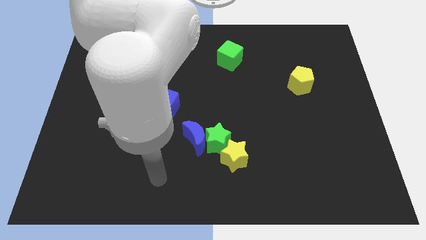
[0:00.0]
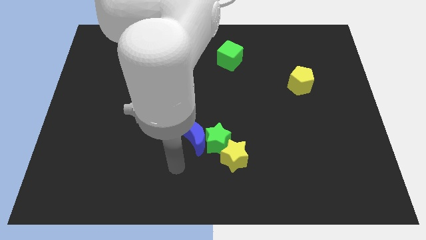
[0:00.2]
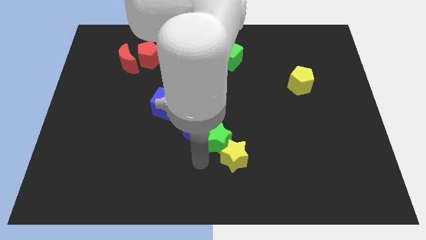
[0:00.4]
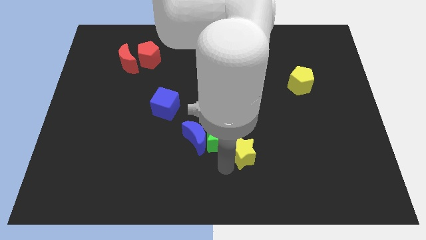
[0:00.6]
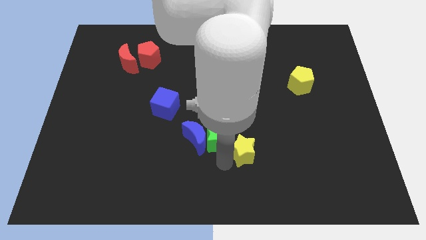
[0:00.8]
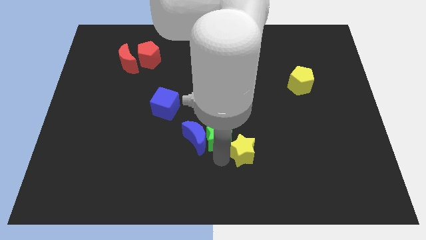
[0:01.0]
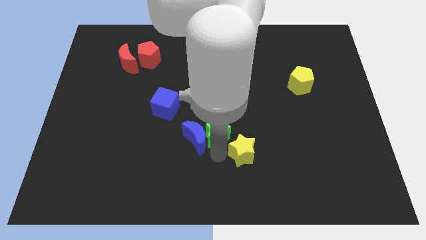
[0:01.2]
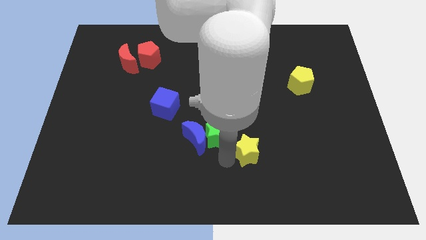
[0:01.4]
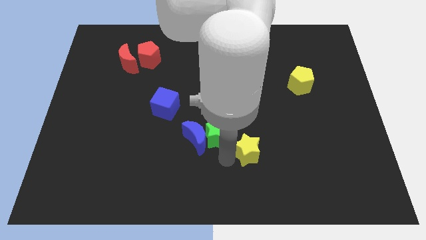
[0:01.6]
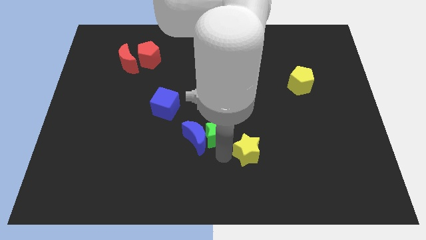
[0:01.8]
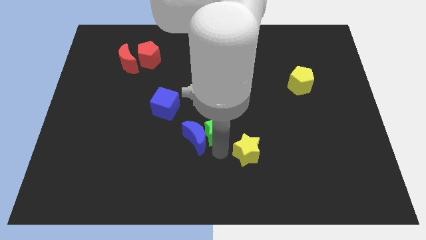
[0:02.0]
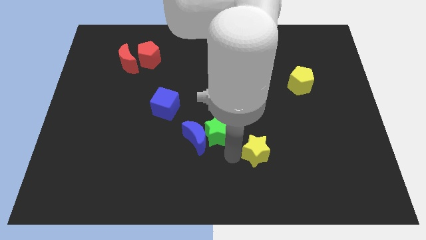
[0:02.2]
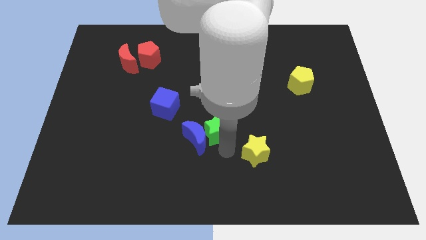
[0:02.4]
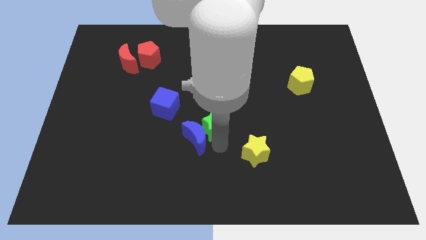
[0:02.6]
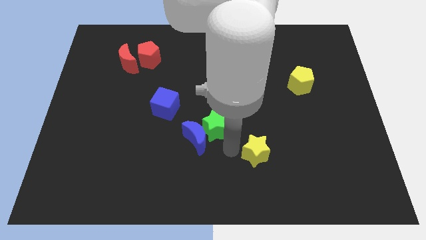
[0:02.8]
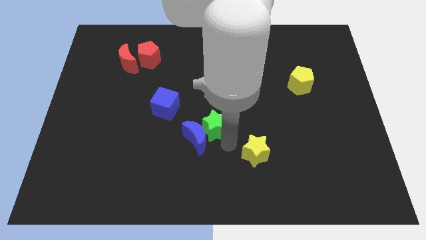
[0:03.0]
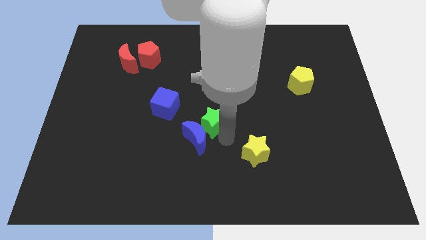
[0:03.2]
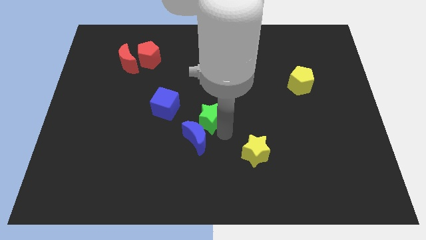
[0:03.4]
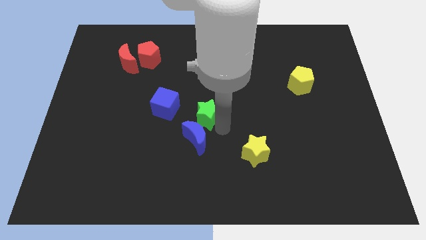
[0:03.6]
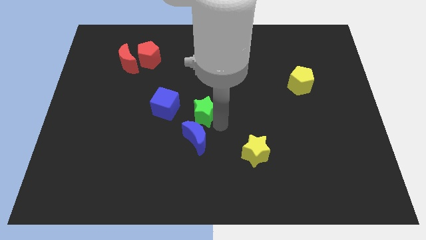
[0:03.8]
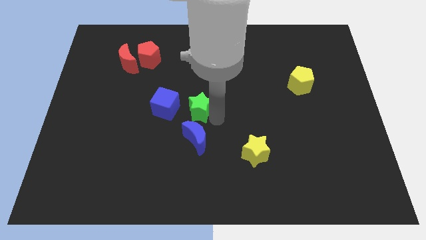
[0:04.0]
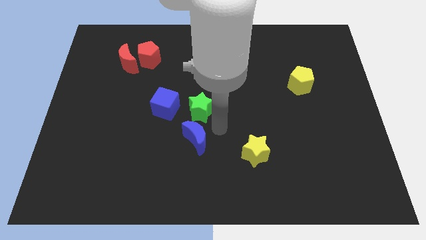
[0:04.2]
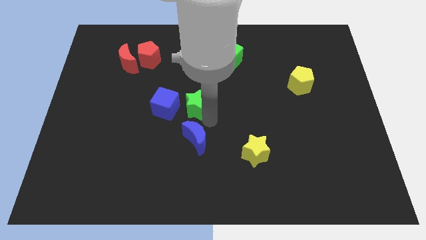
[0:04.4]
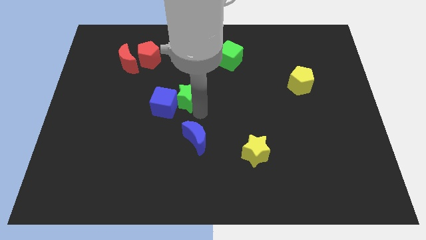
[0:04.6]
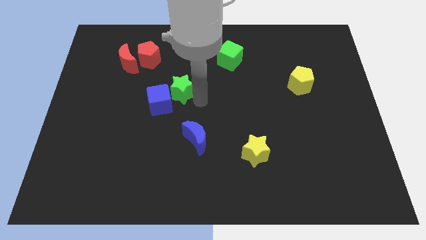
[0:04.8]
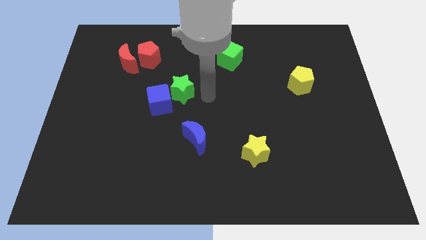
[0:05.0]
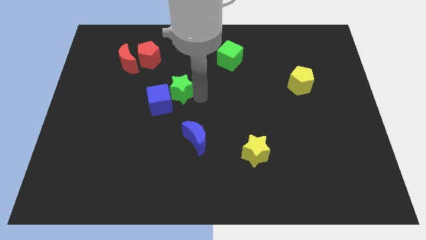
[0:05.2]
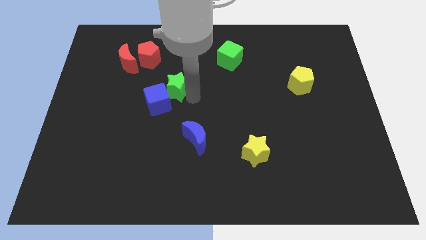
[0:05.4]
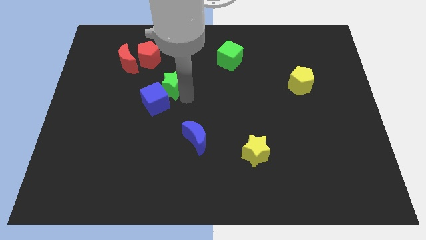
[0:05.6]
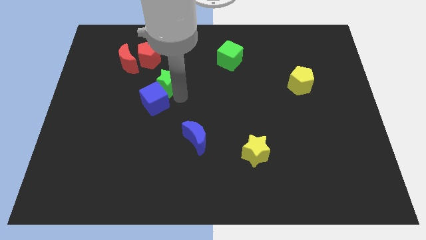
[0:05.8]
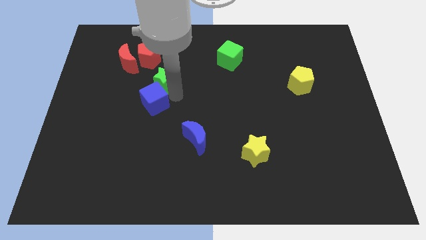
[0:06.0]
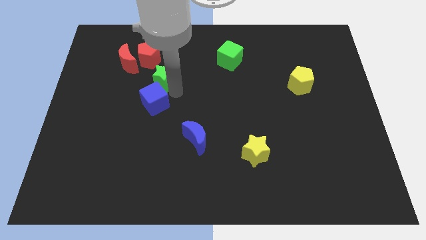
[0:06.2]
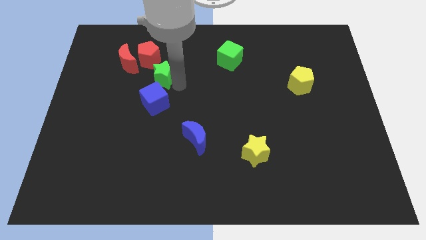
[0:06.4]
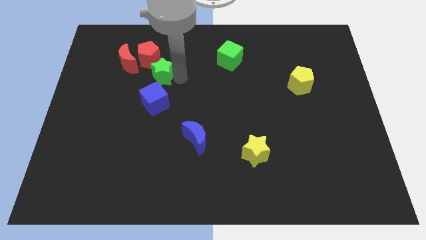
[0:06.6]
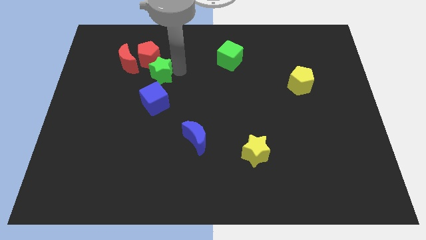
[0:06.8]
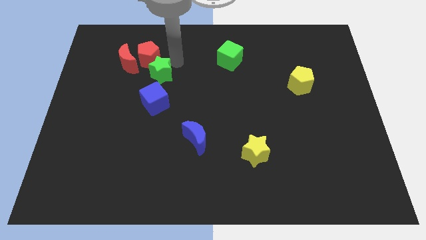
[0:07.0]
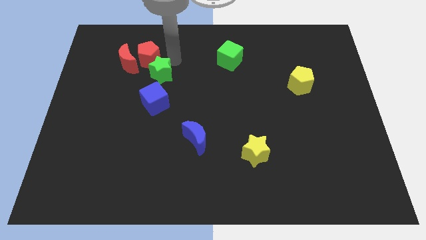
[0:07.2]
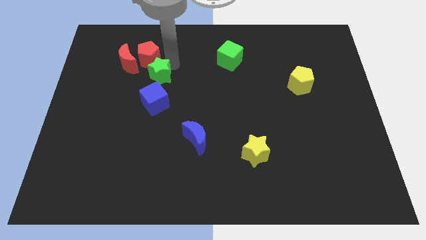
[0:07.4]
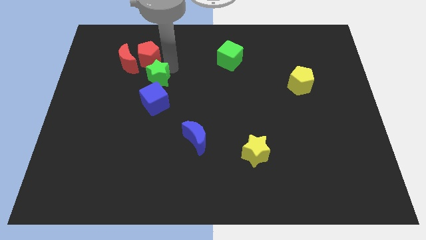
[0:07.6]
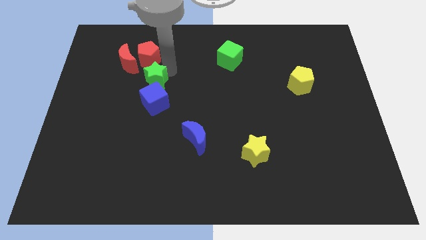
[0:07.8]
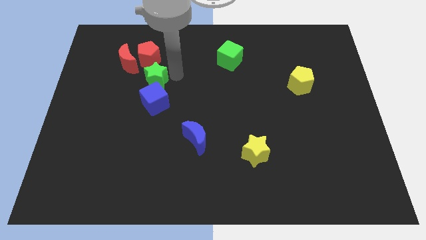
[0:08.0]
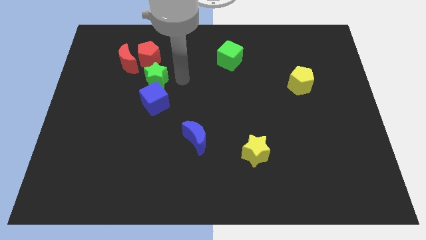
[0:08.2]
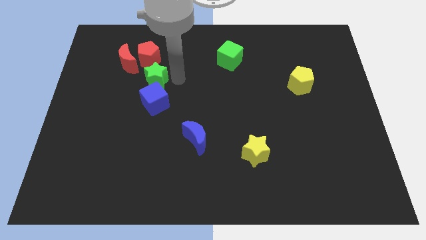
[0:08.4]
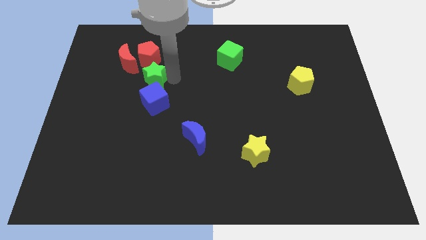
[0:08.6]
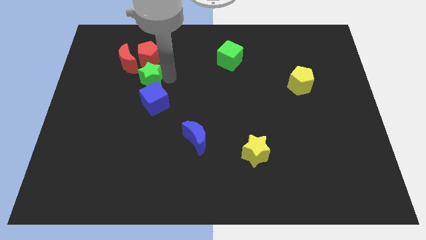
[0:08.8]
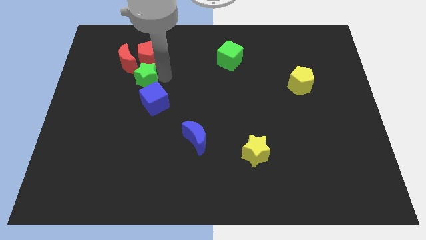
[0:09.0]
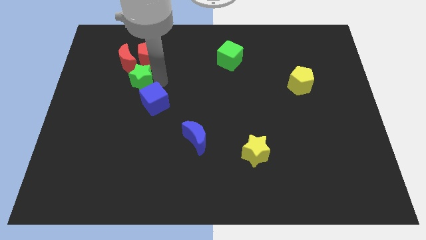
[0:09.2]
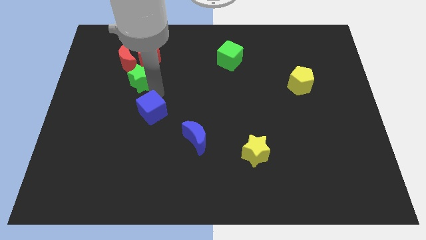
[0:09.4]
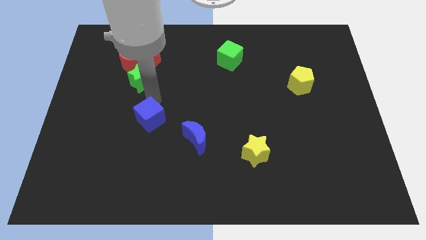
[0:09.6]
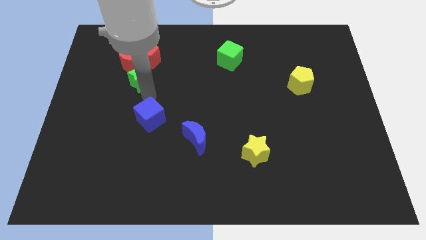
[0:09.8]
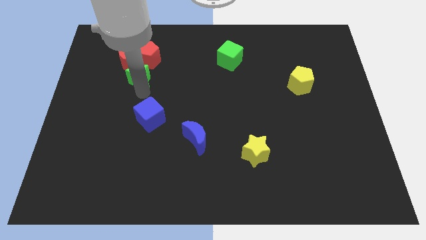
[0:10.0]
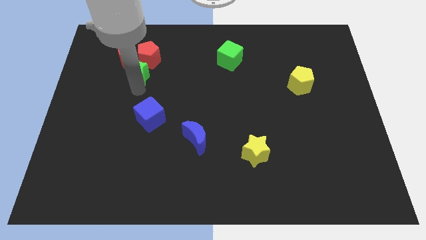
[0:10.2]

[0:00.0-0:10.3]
slide the green star close to the red moon

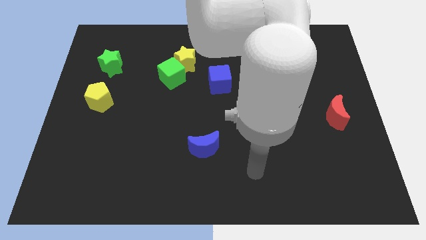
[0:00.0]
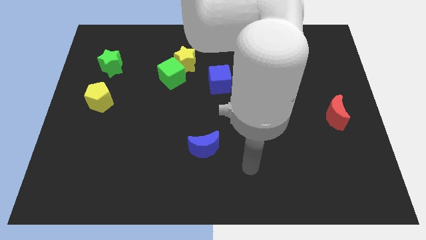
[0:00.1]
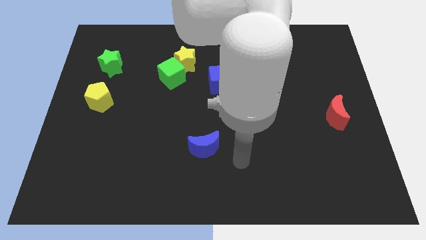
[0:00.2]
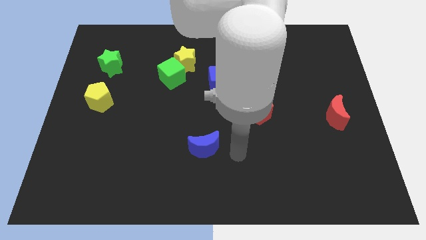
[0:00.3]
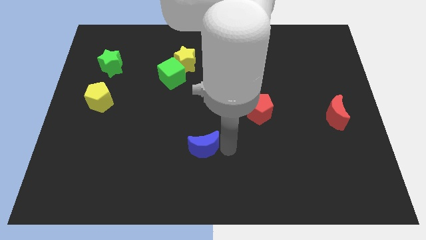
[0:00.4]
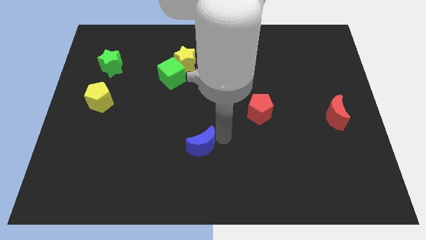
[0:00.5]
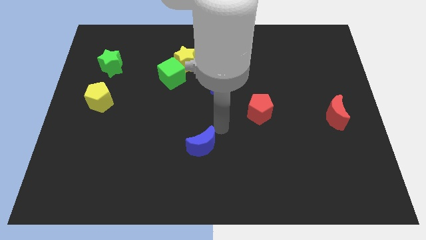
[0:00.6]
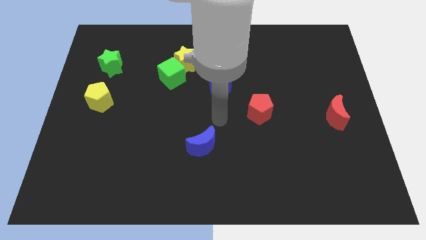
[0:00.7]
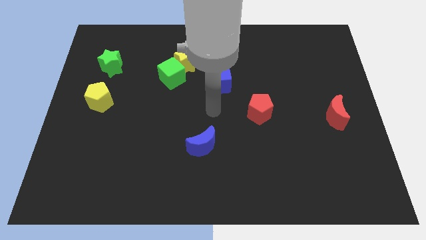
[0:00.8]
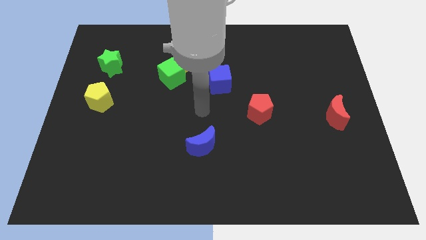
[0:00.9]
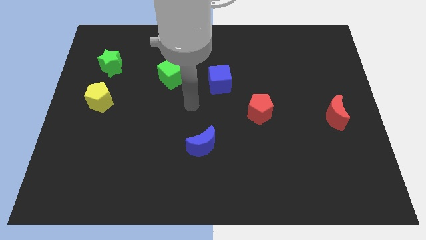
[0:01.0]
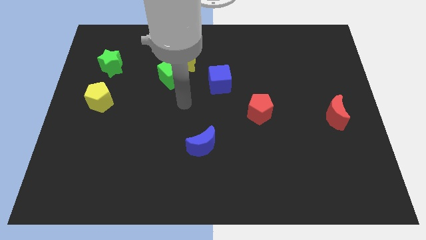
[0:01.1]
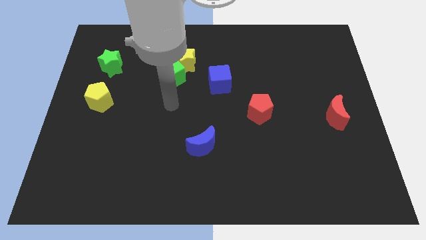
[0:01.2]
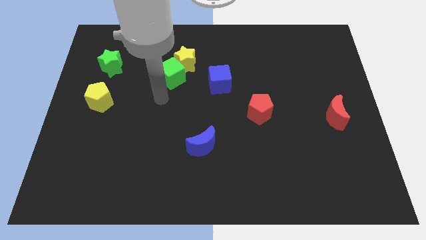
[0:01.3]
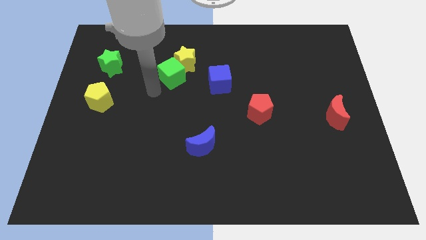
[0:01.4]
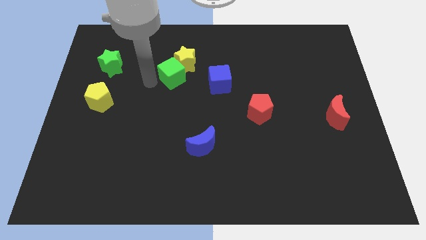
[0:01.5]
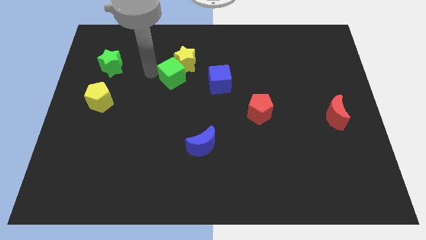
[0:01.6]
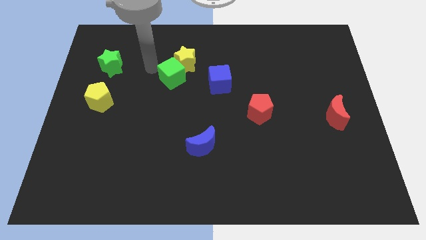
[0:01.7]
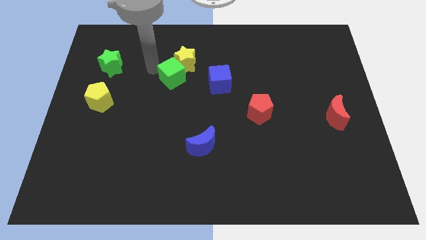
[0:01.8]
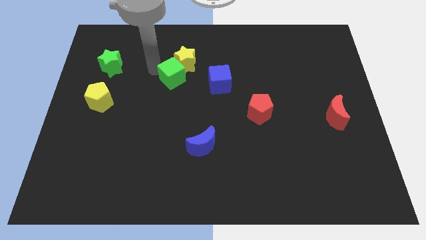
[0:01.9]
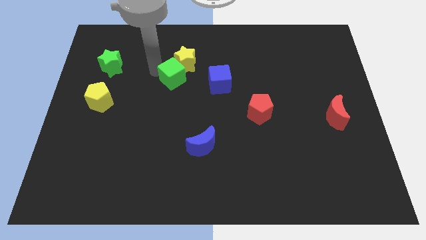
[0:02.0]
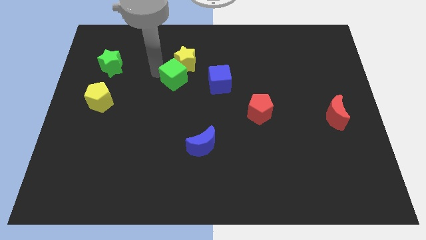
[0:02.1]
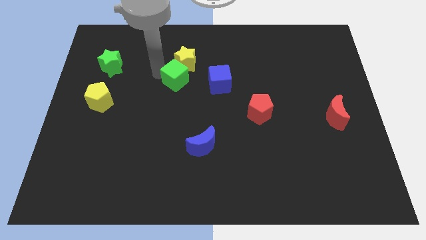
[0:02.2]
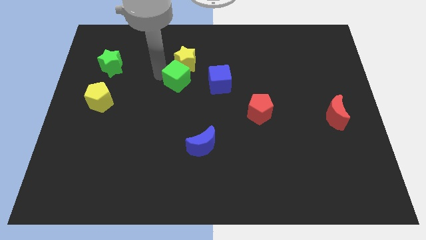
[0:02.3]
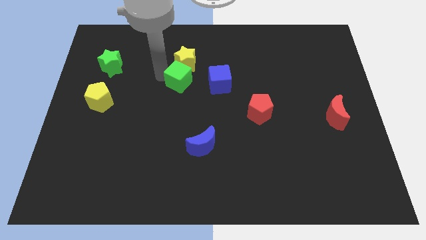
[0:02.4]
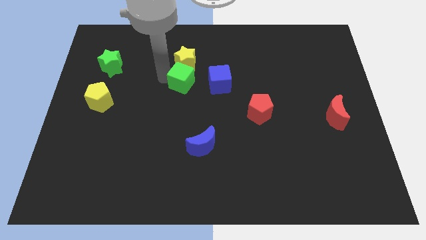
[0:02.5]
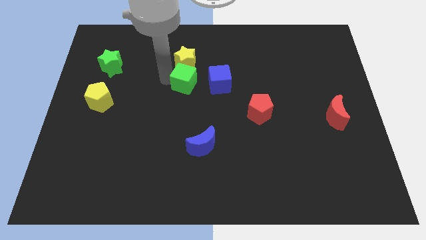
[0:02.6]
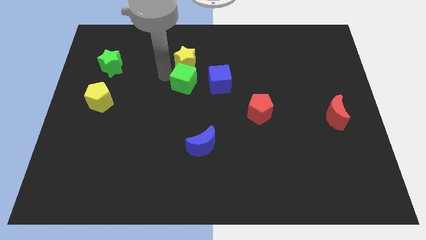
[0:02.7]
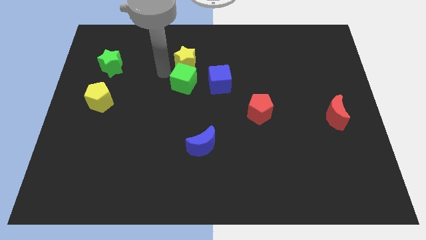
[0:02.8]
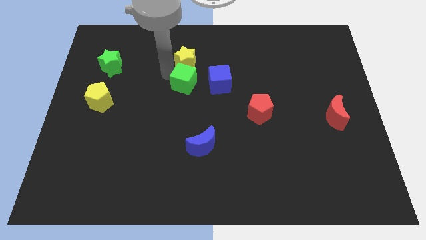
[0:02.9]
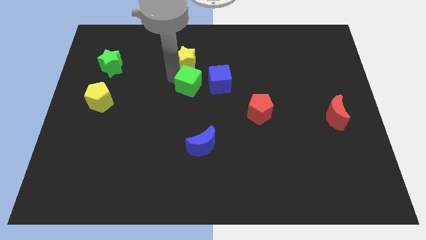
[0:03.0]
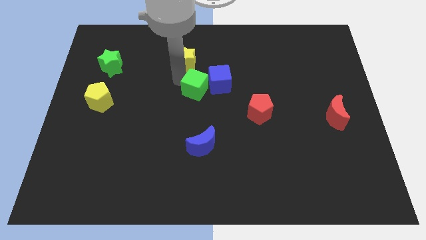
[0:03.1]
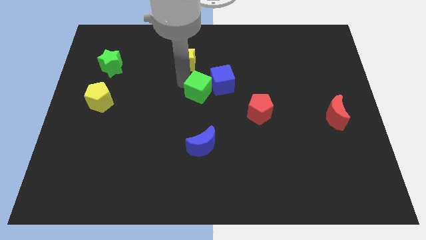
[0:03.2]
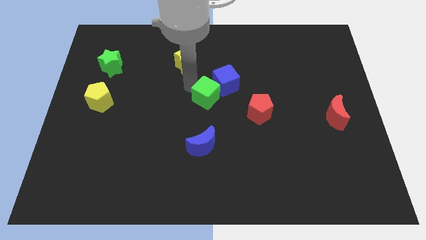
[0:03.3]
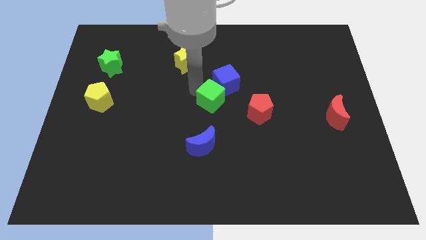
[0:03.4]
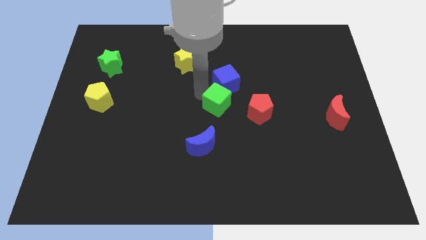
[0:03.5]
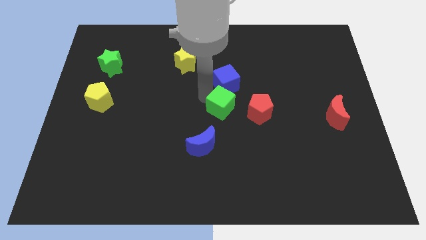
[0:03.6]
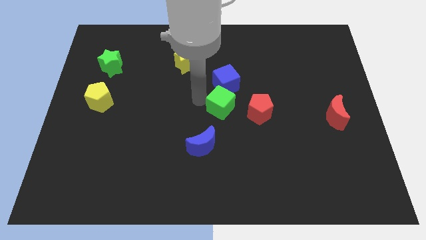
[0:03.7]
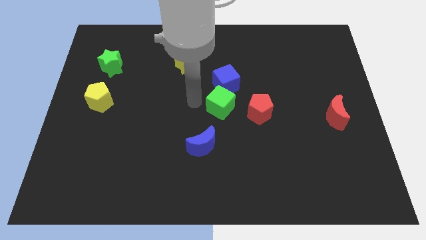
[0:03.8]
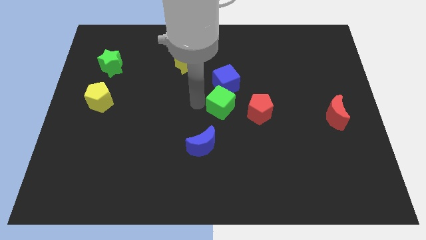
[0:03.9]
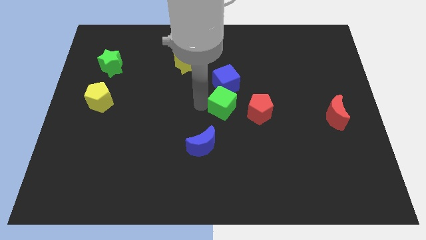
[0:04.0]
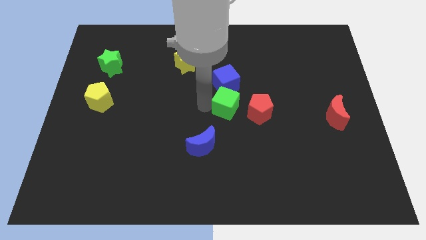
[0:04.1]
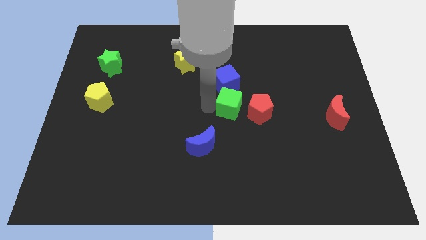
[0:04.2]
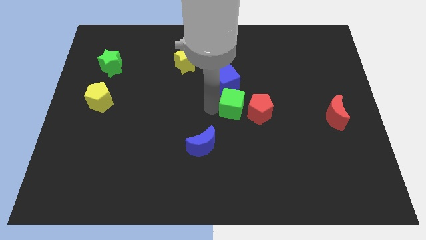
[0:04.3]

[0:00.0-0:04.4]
slide the green cube close to the red pentagon
